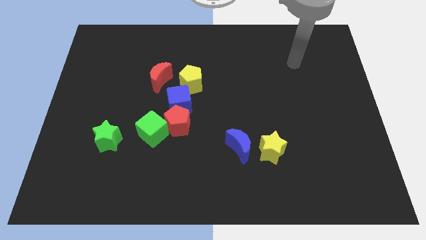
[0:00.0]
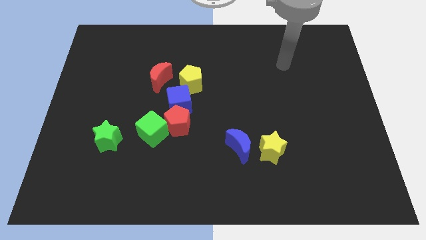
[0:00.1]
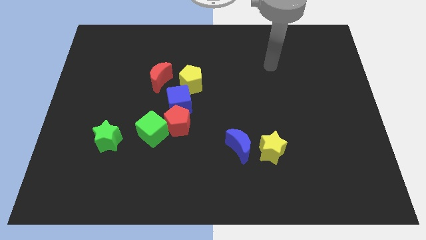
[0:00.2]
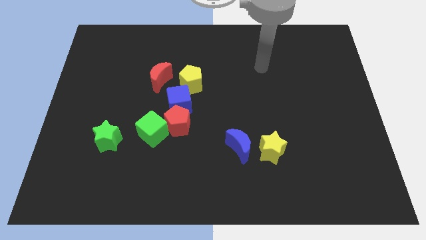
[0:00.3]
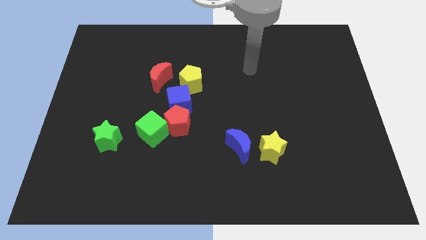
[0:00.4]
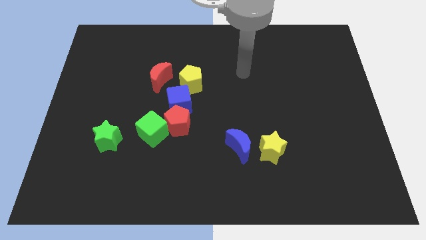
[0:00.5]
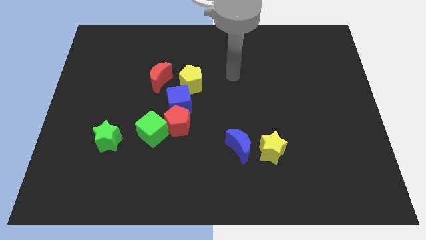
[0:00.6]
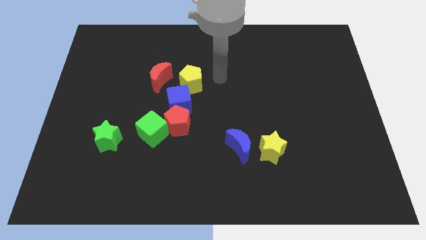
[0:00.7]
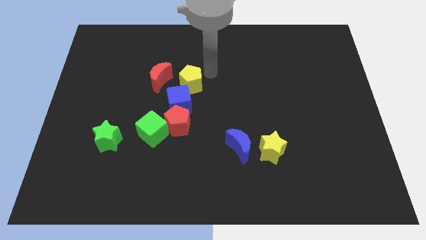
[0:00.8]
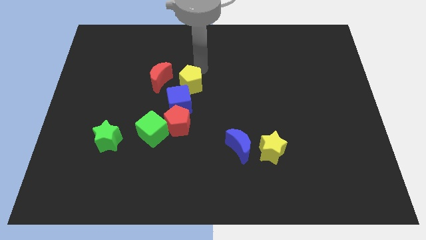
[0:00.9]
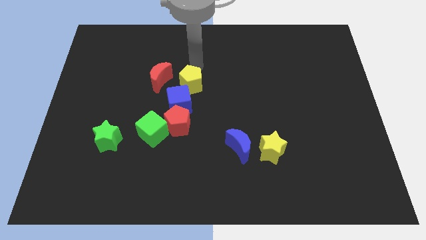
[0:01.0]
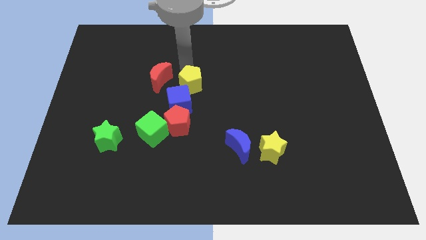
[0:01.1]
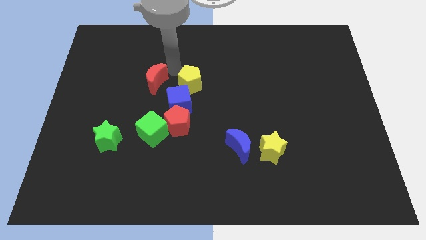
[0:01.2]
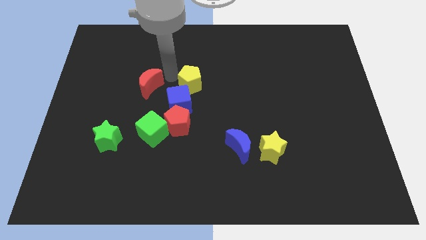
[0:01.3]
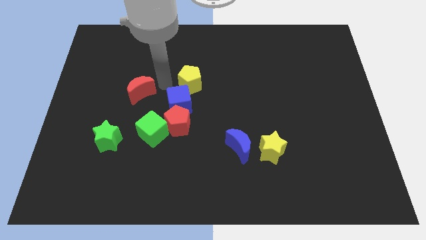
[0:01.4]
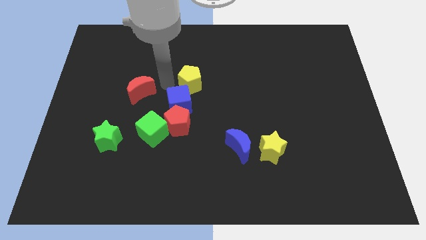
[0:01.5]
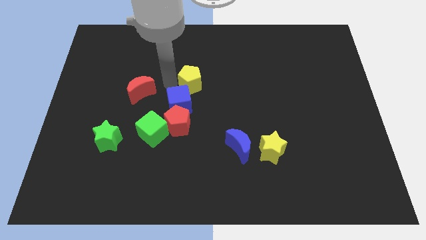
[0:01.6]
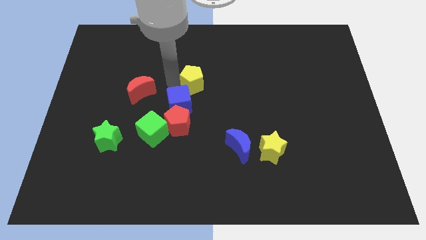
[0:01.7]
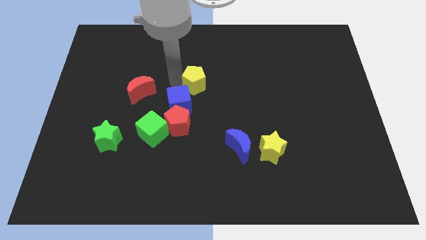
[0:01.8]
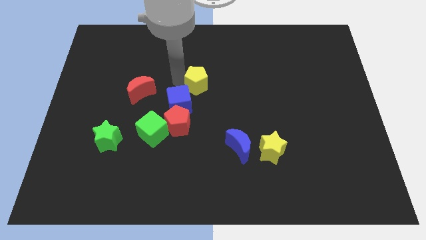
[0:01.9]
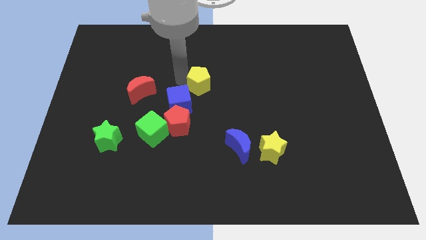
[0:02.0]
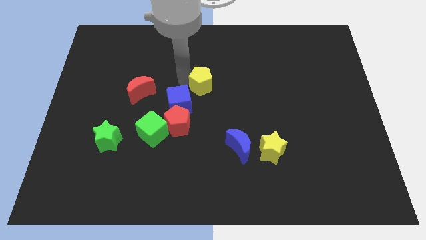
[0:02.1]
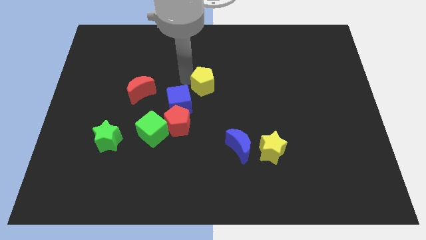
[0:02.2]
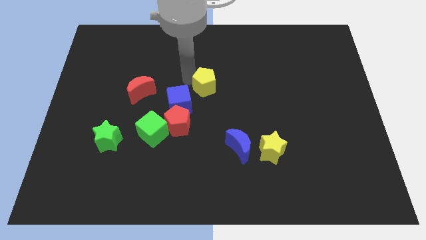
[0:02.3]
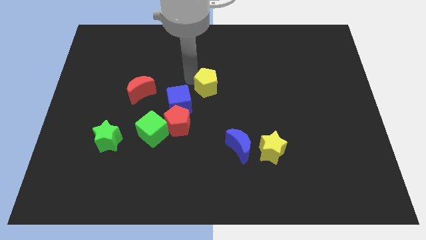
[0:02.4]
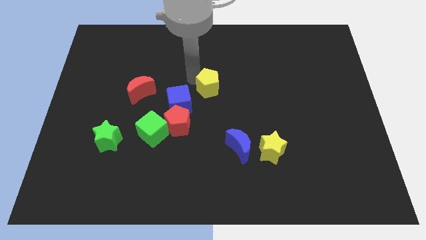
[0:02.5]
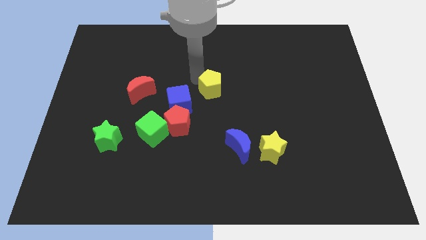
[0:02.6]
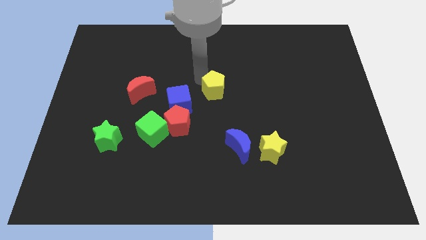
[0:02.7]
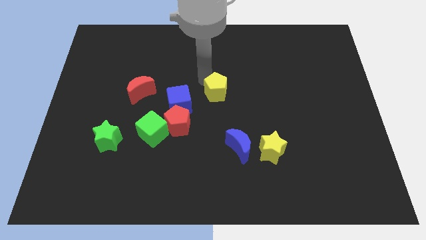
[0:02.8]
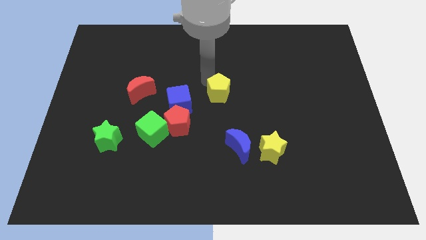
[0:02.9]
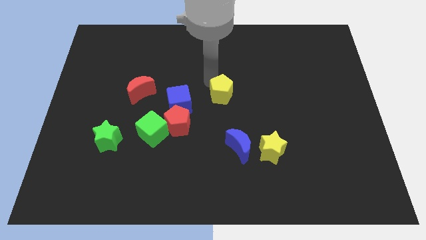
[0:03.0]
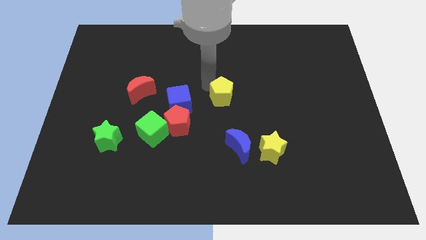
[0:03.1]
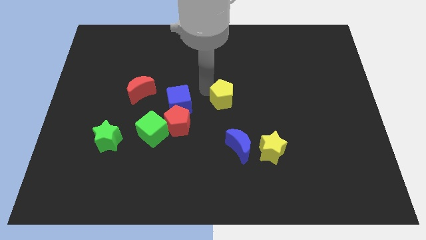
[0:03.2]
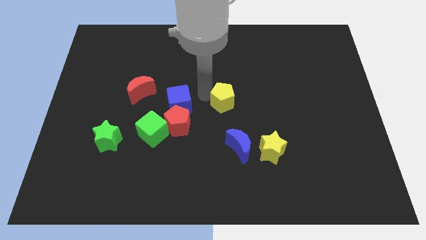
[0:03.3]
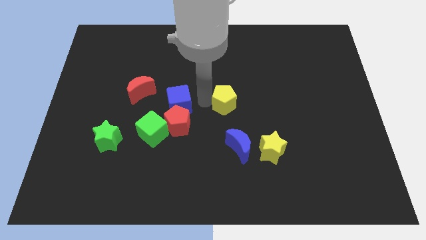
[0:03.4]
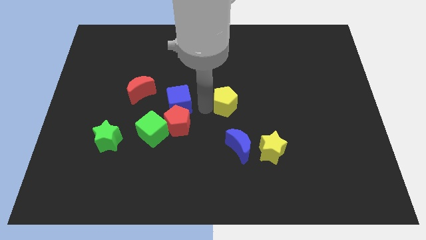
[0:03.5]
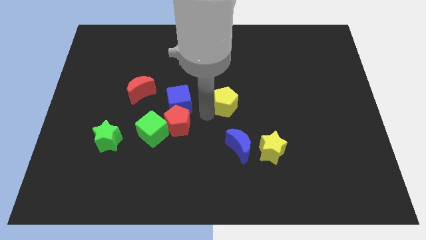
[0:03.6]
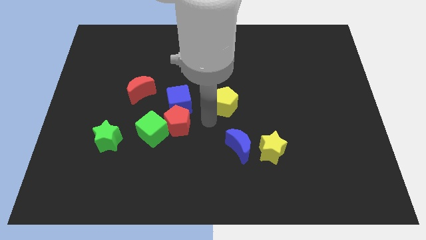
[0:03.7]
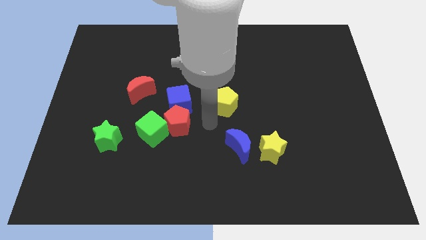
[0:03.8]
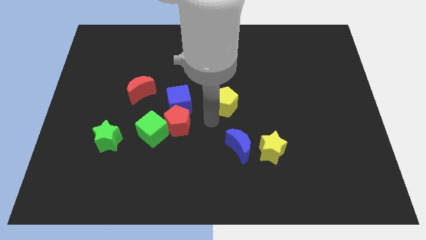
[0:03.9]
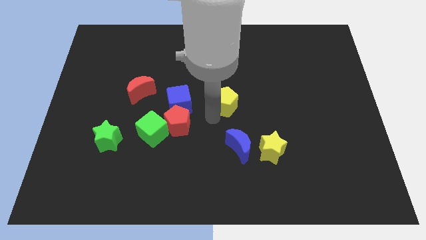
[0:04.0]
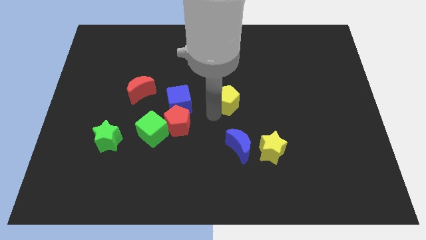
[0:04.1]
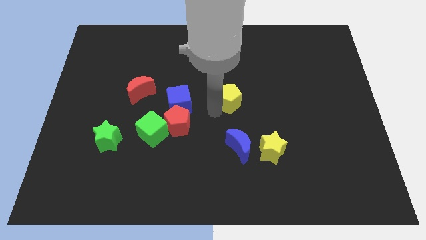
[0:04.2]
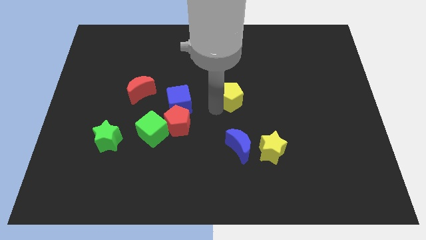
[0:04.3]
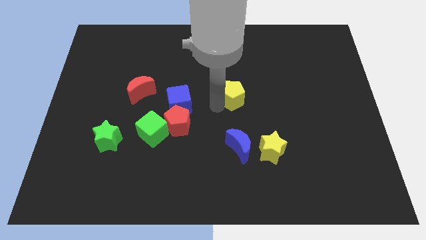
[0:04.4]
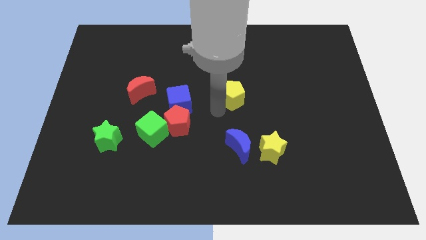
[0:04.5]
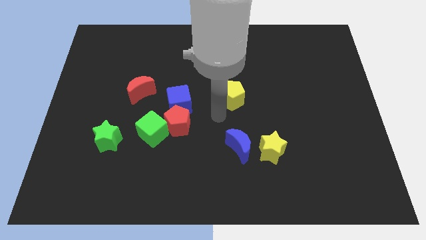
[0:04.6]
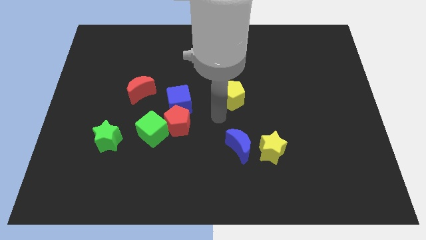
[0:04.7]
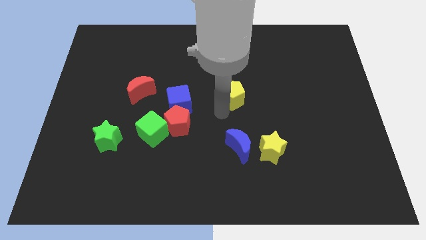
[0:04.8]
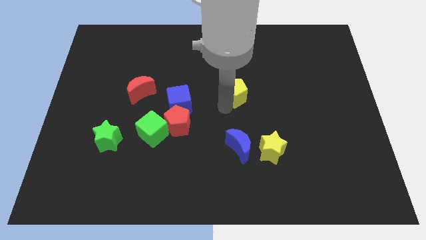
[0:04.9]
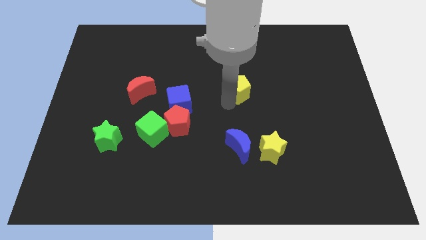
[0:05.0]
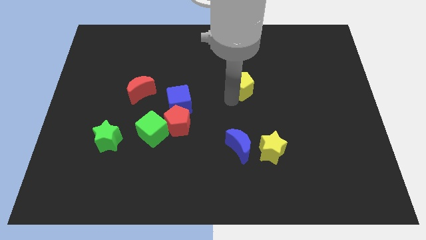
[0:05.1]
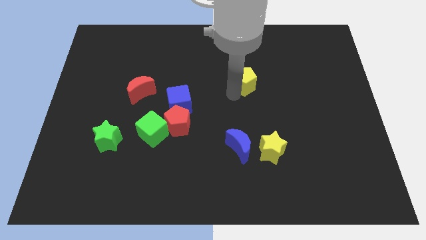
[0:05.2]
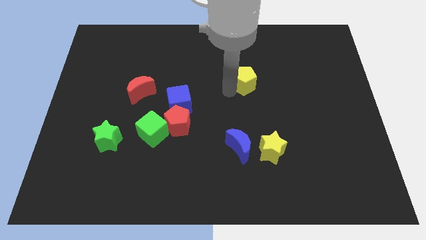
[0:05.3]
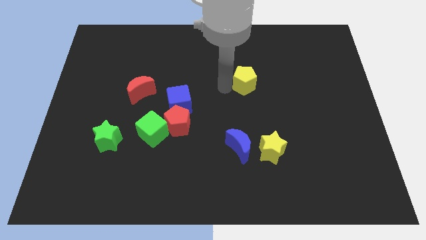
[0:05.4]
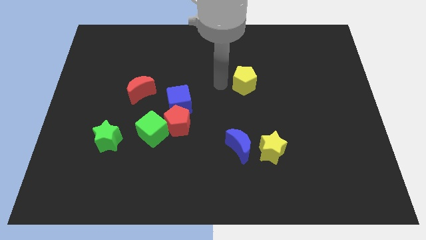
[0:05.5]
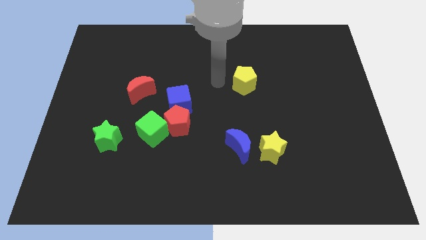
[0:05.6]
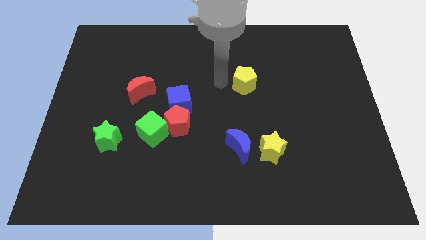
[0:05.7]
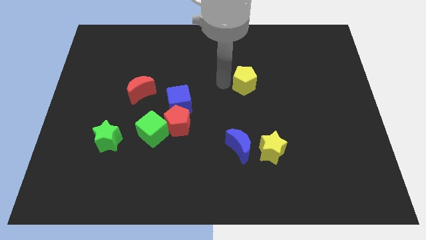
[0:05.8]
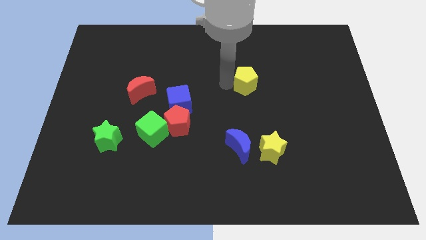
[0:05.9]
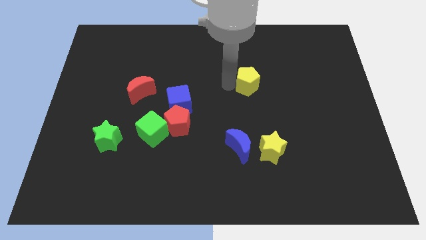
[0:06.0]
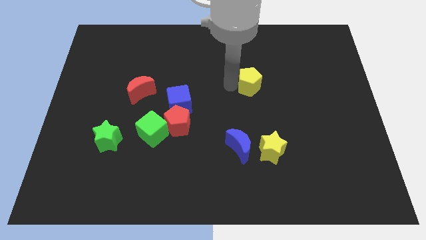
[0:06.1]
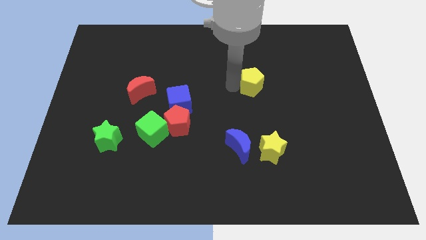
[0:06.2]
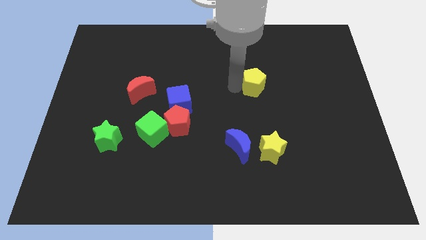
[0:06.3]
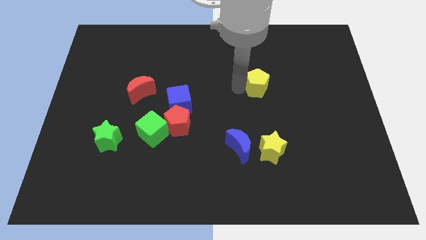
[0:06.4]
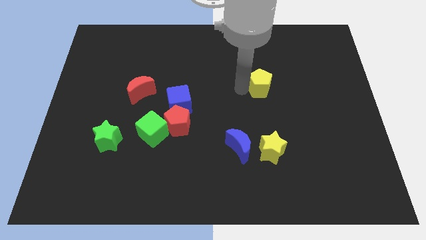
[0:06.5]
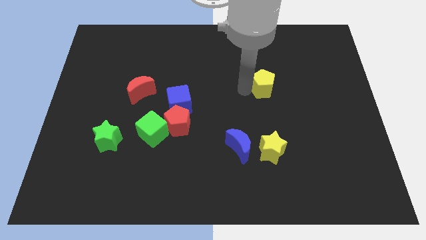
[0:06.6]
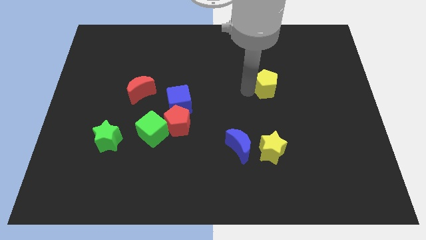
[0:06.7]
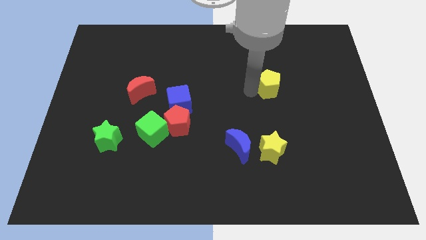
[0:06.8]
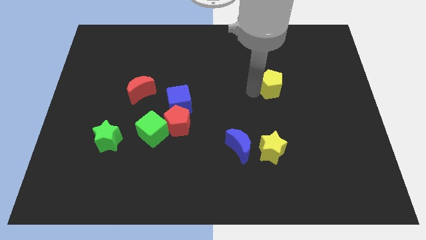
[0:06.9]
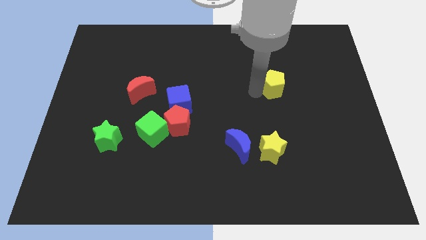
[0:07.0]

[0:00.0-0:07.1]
push the yellow pentagon to the right

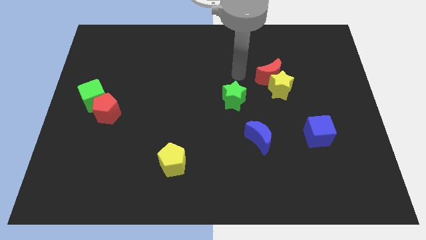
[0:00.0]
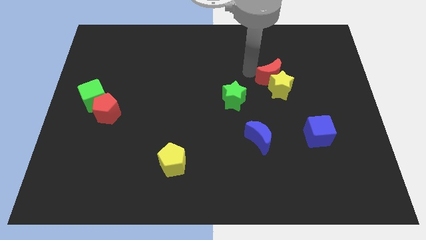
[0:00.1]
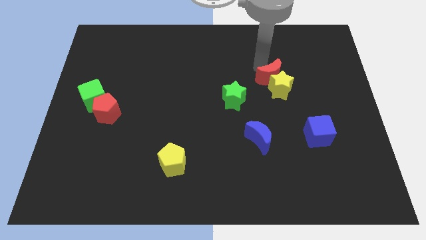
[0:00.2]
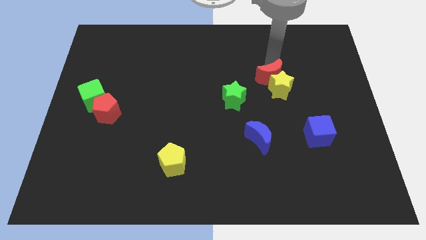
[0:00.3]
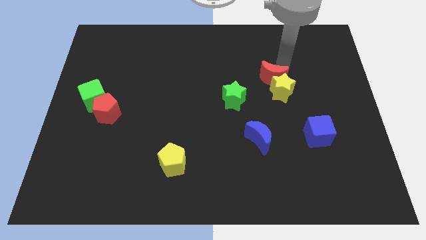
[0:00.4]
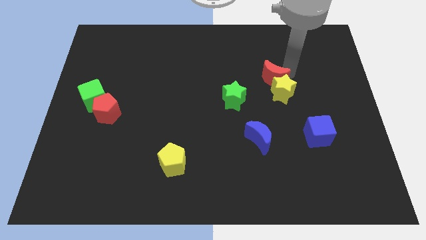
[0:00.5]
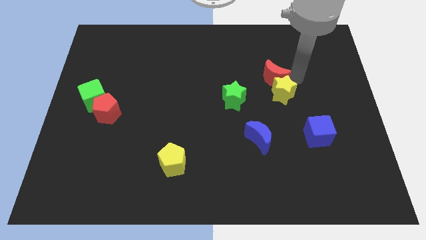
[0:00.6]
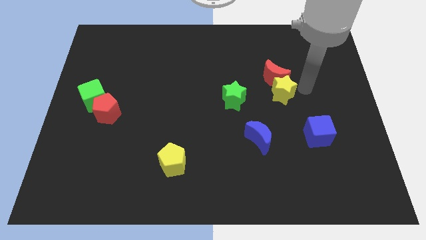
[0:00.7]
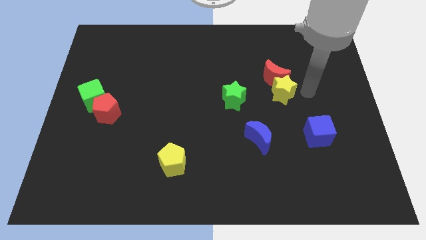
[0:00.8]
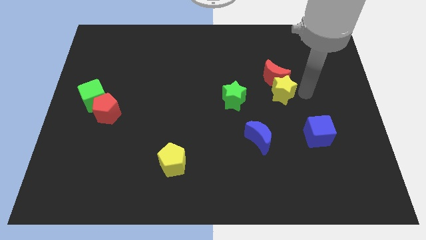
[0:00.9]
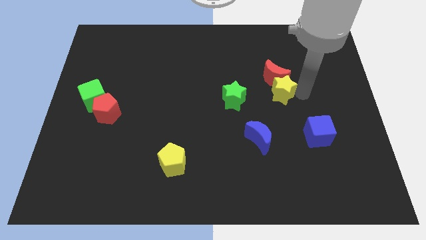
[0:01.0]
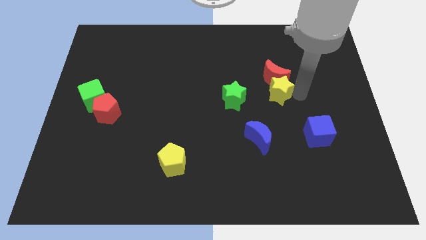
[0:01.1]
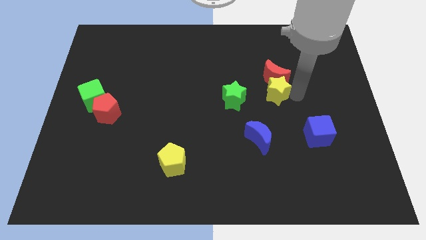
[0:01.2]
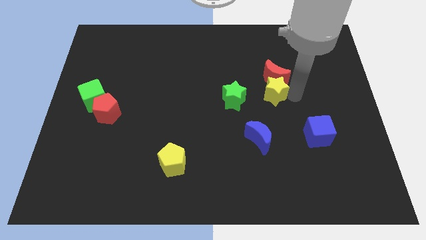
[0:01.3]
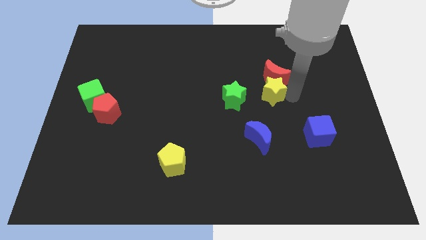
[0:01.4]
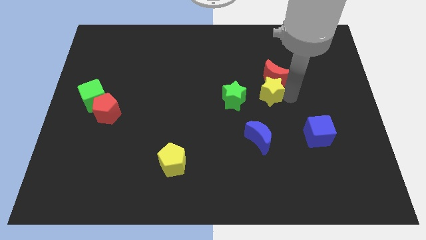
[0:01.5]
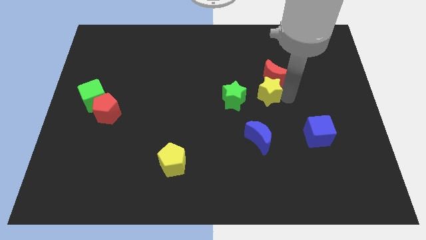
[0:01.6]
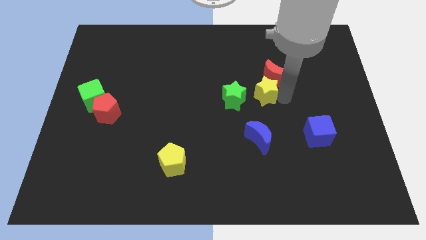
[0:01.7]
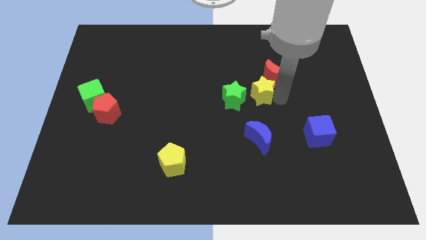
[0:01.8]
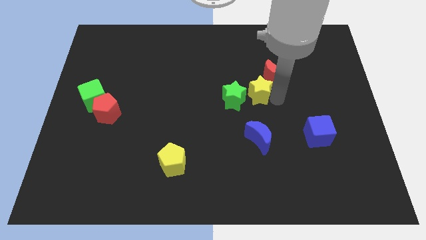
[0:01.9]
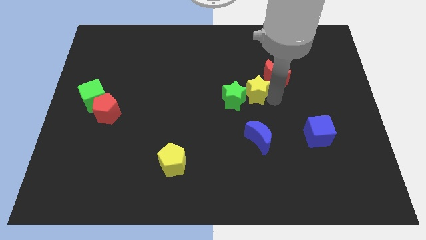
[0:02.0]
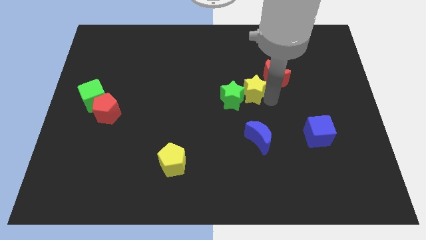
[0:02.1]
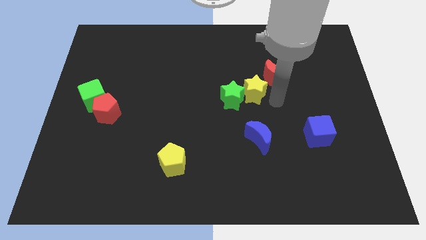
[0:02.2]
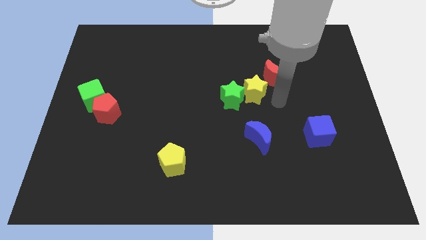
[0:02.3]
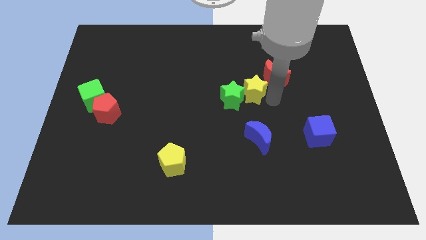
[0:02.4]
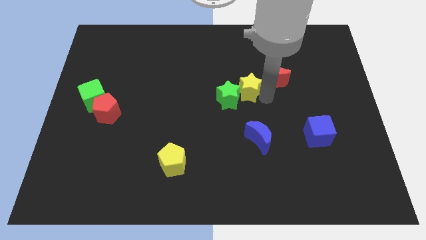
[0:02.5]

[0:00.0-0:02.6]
push the yellow star left somewhat
